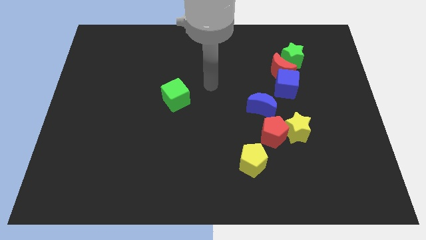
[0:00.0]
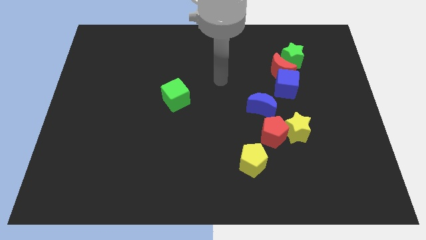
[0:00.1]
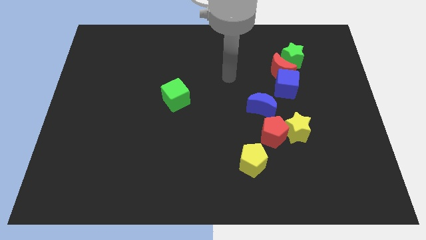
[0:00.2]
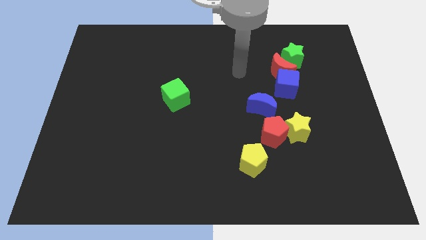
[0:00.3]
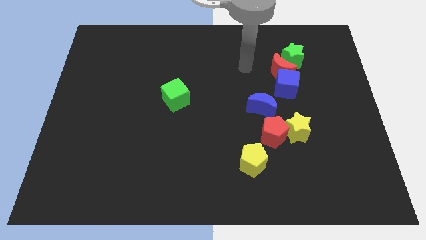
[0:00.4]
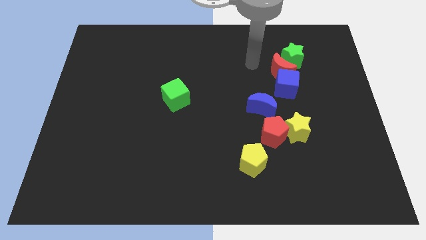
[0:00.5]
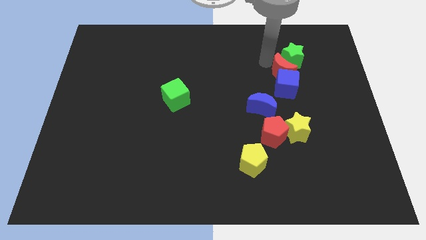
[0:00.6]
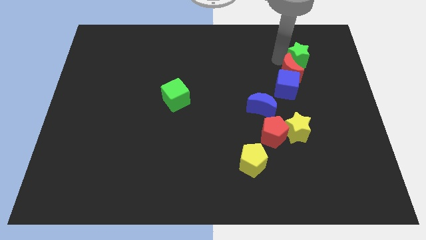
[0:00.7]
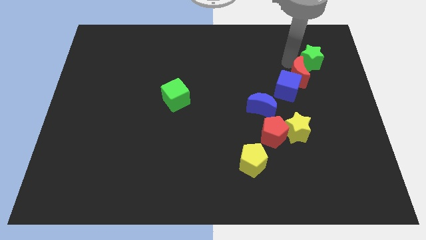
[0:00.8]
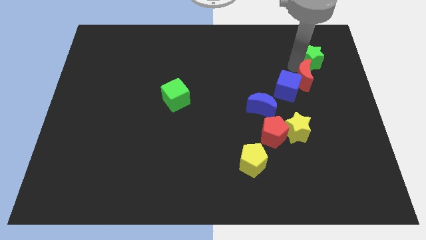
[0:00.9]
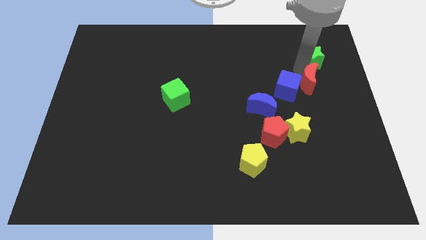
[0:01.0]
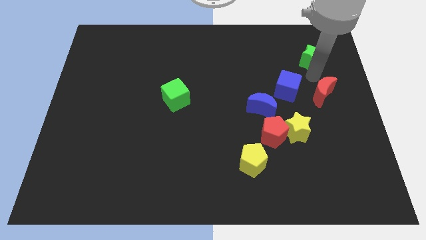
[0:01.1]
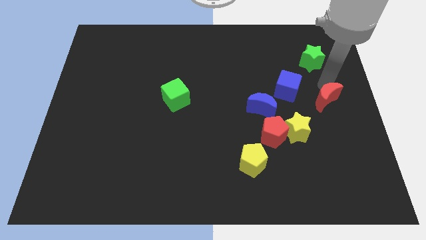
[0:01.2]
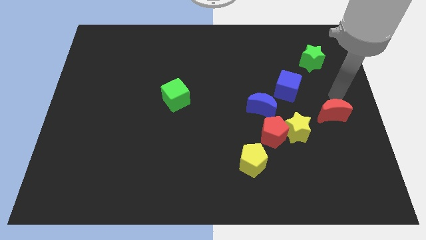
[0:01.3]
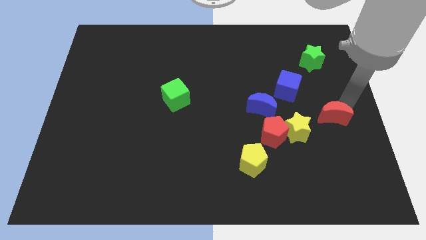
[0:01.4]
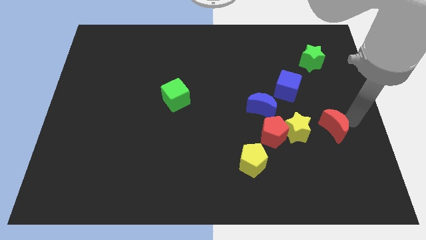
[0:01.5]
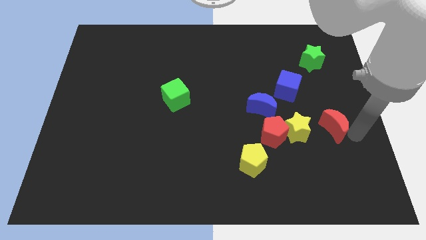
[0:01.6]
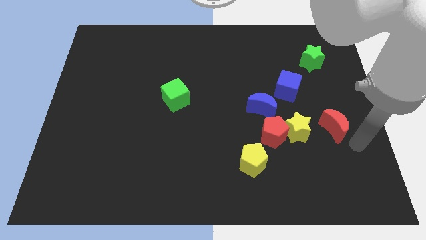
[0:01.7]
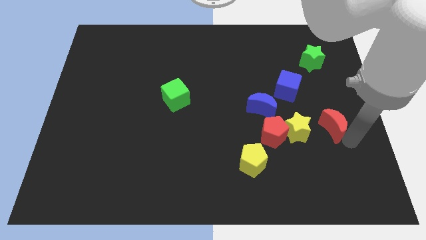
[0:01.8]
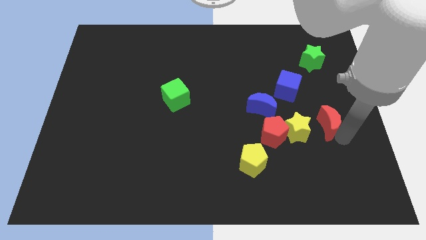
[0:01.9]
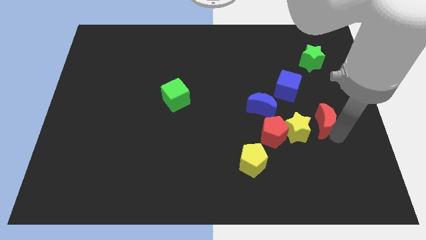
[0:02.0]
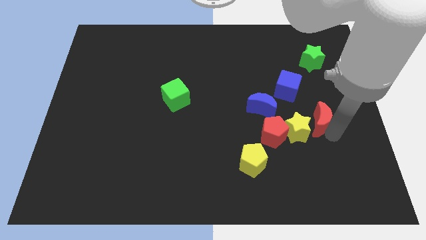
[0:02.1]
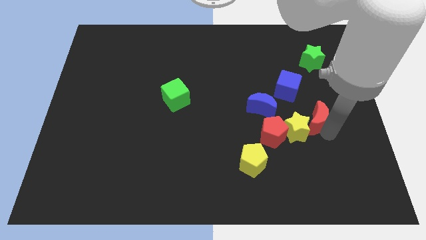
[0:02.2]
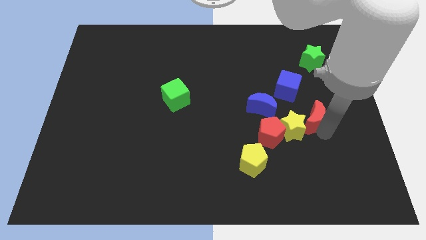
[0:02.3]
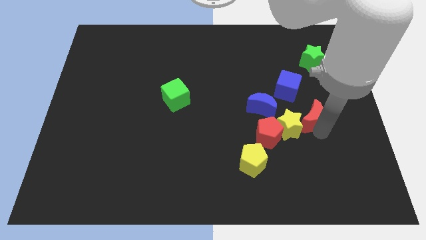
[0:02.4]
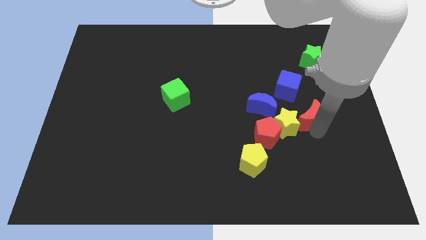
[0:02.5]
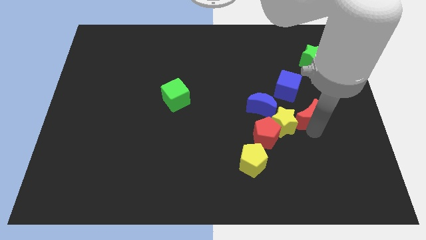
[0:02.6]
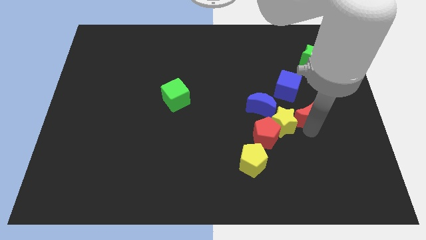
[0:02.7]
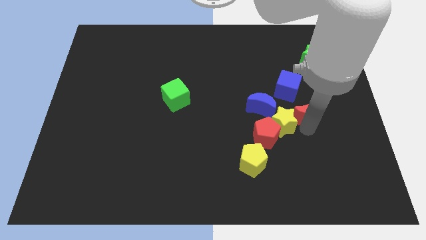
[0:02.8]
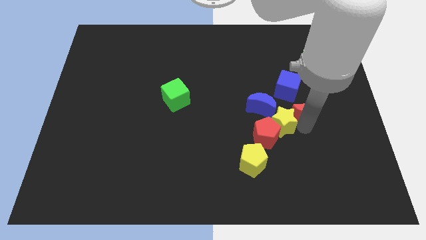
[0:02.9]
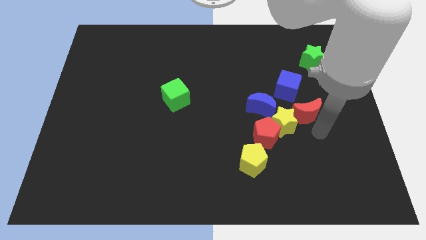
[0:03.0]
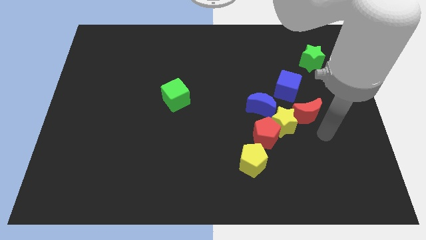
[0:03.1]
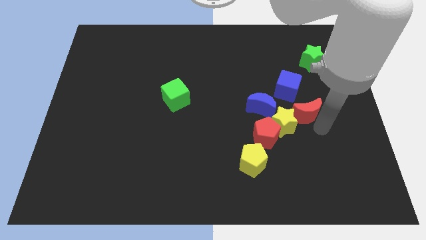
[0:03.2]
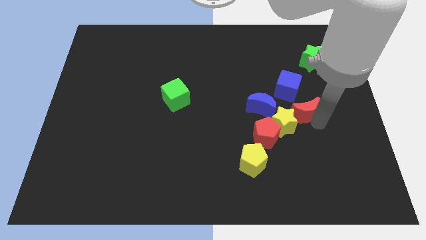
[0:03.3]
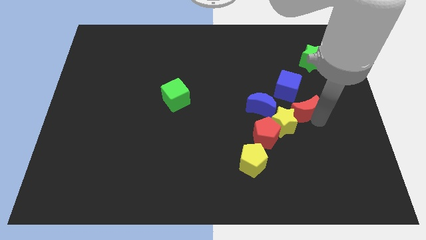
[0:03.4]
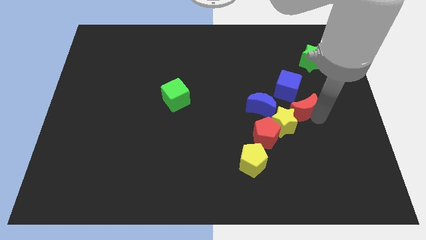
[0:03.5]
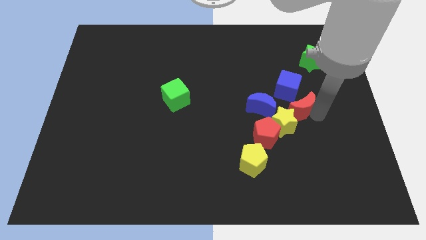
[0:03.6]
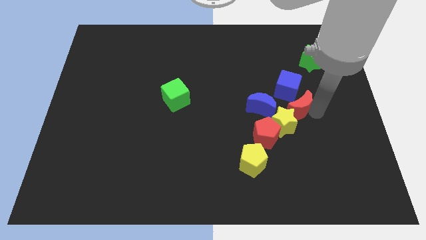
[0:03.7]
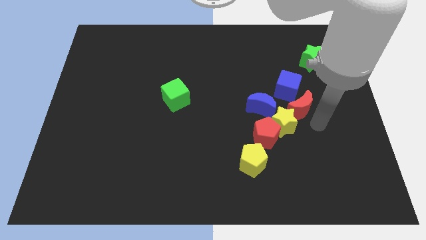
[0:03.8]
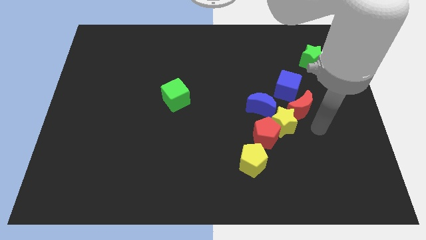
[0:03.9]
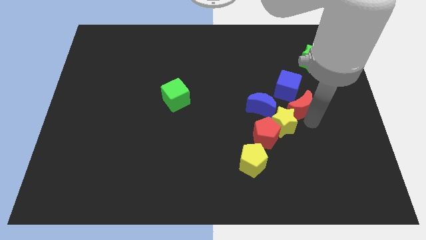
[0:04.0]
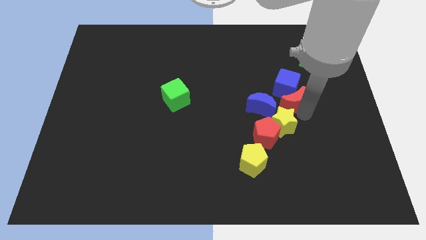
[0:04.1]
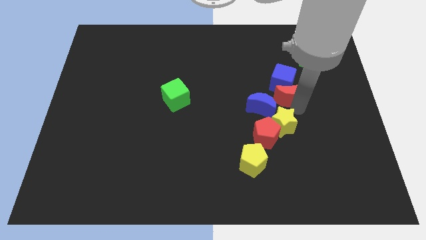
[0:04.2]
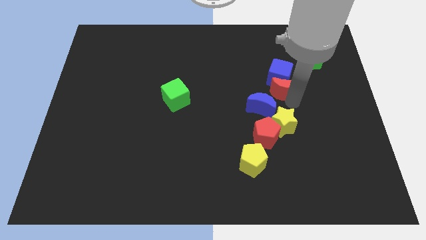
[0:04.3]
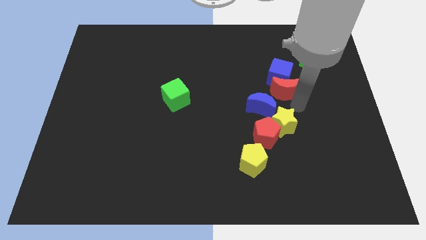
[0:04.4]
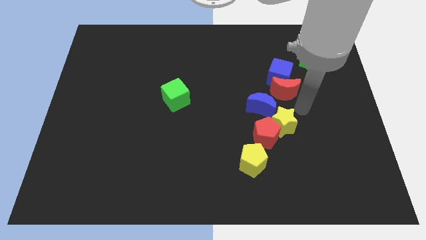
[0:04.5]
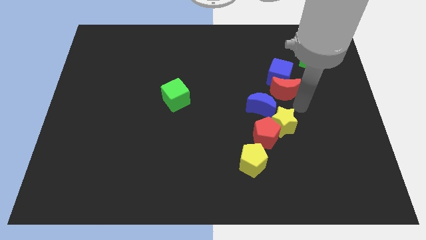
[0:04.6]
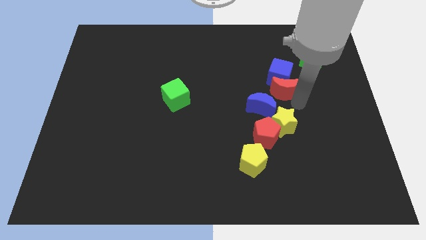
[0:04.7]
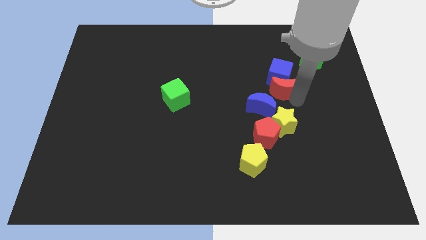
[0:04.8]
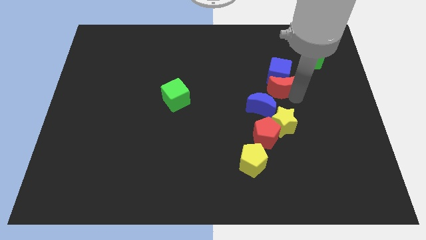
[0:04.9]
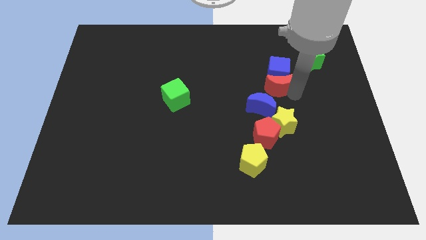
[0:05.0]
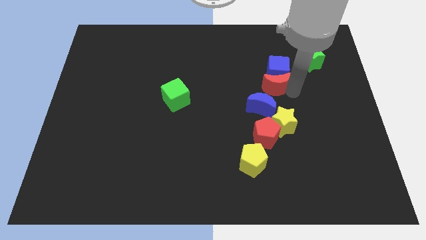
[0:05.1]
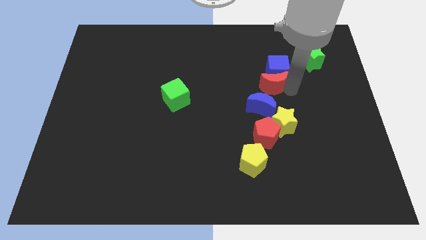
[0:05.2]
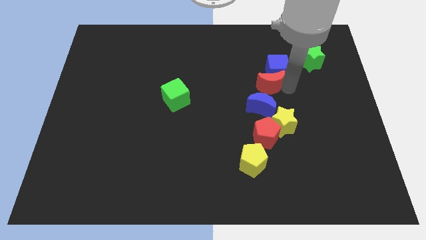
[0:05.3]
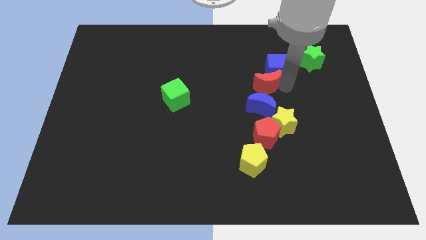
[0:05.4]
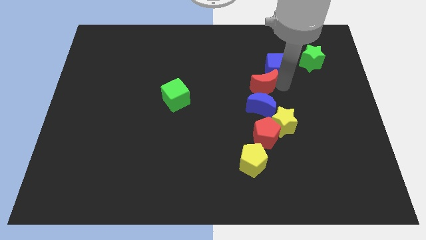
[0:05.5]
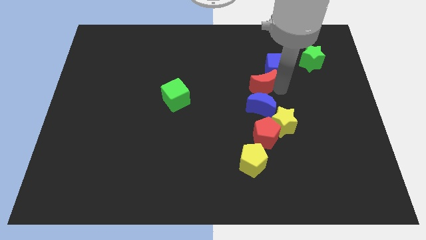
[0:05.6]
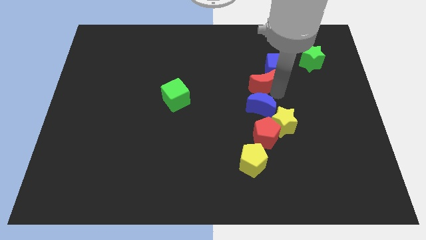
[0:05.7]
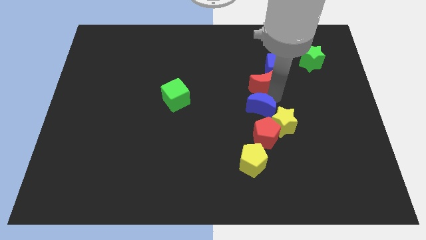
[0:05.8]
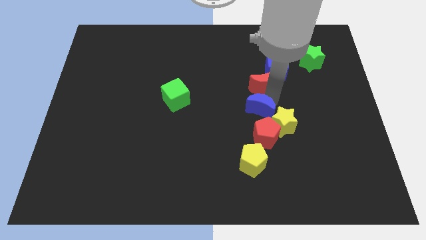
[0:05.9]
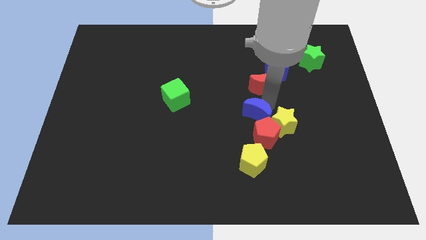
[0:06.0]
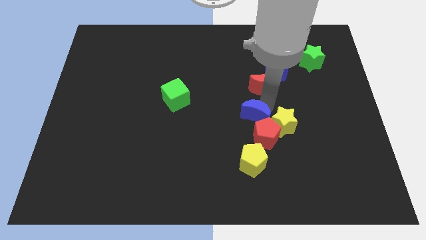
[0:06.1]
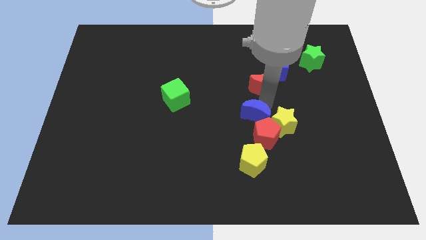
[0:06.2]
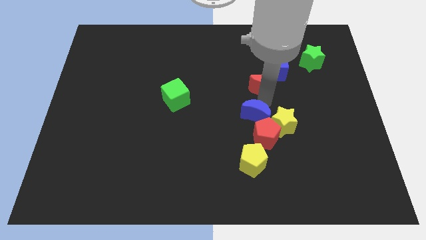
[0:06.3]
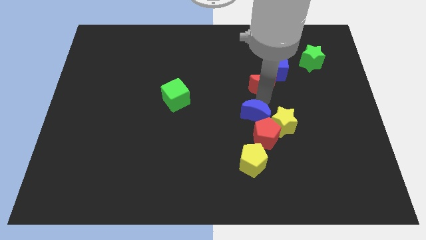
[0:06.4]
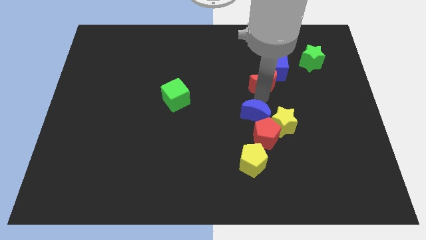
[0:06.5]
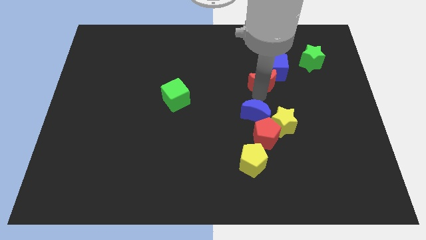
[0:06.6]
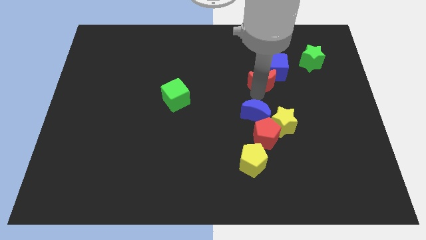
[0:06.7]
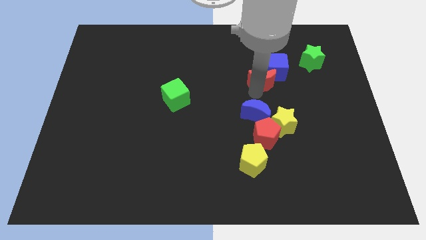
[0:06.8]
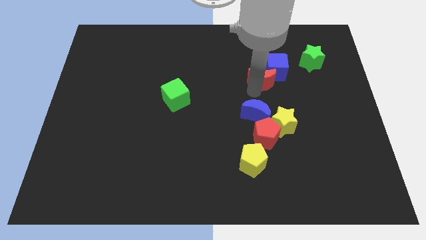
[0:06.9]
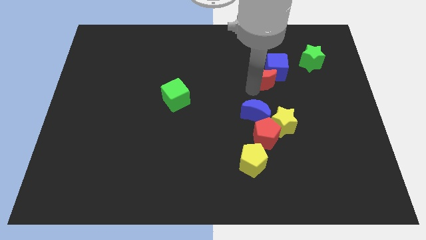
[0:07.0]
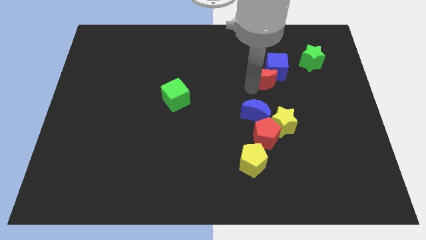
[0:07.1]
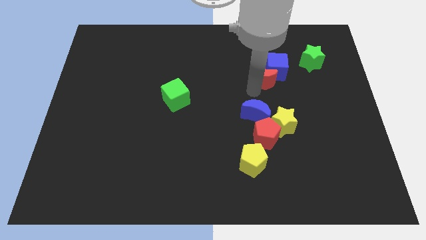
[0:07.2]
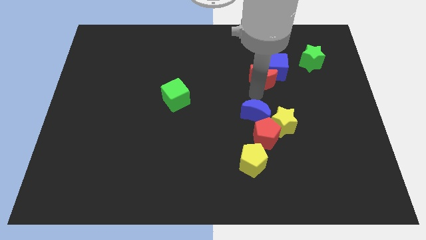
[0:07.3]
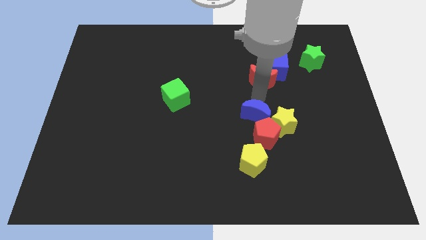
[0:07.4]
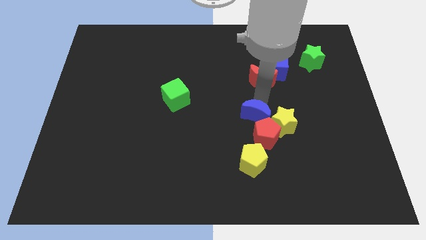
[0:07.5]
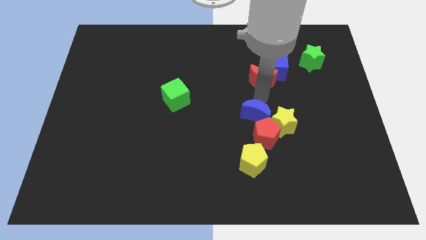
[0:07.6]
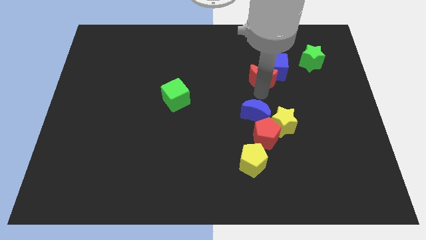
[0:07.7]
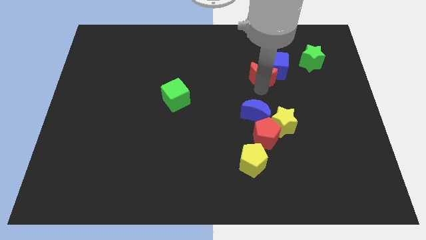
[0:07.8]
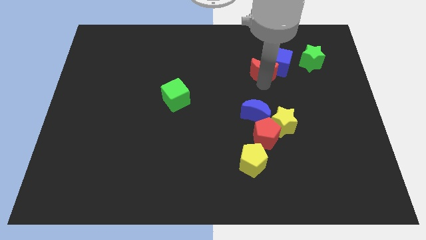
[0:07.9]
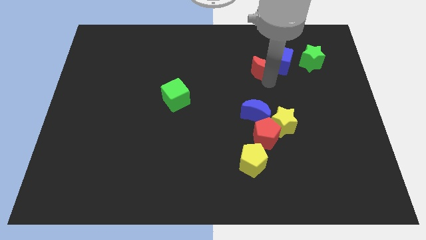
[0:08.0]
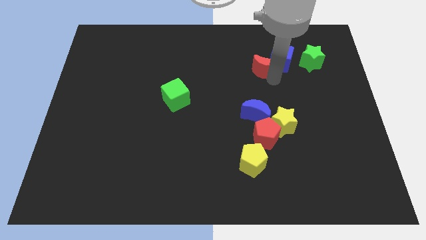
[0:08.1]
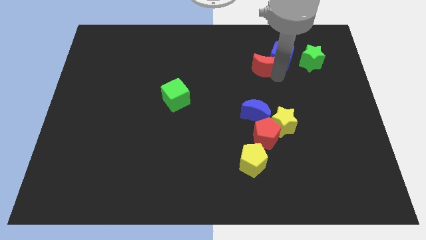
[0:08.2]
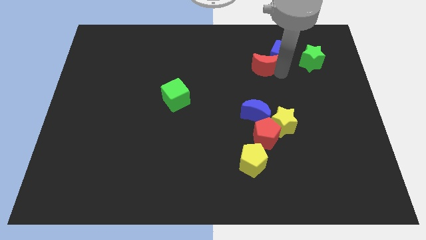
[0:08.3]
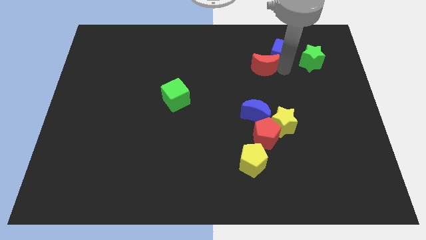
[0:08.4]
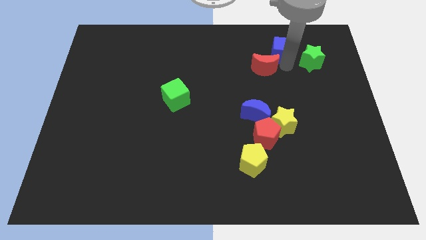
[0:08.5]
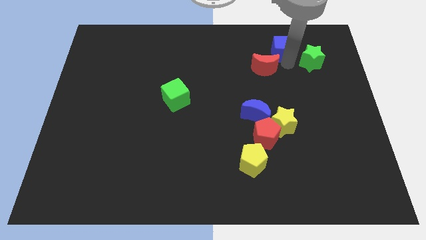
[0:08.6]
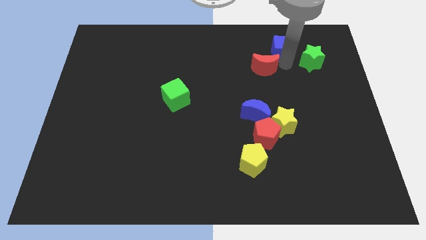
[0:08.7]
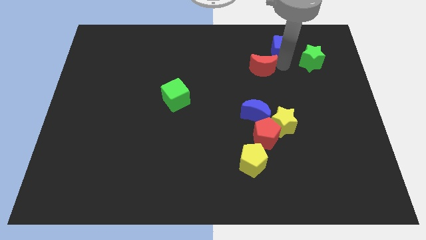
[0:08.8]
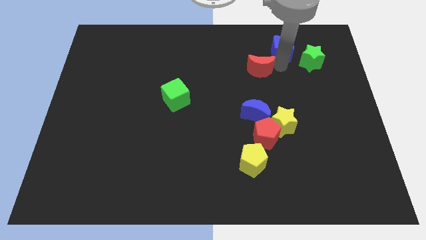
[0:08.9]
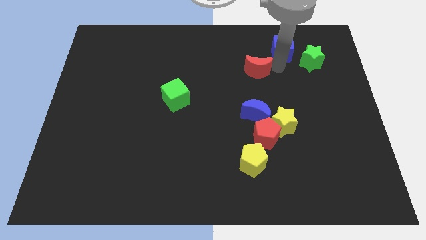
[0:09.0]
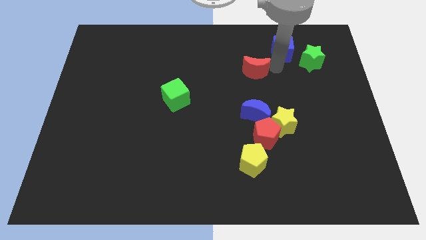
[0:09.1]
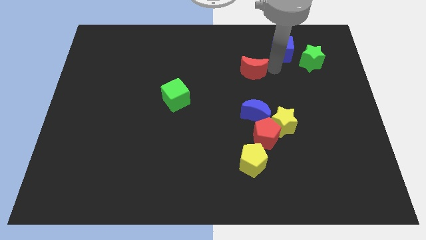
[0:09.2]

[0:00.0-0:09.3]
move the red moon somewhat left
